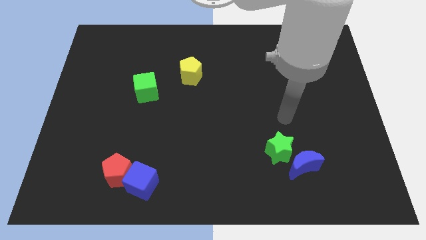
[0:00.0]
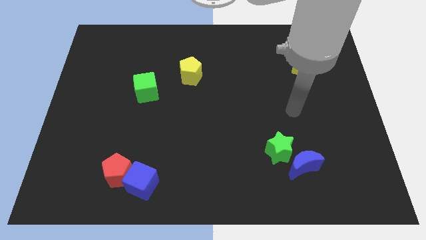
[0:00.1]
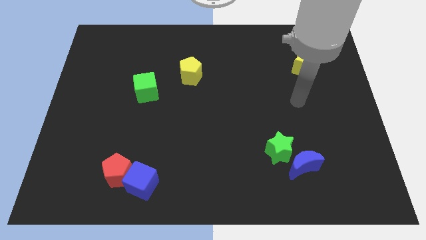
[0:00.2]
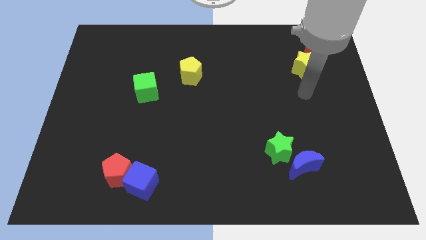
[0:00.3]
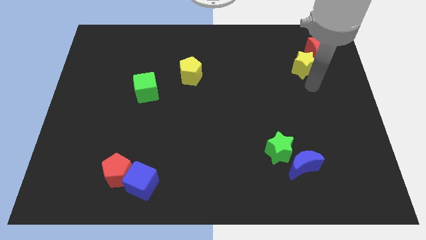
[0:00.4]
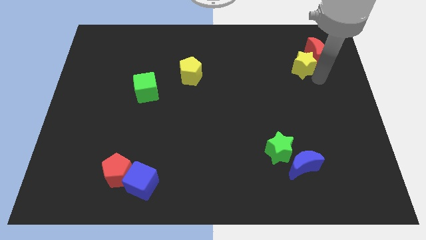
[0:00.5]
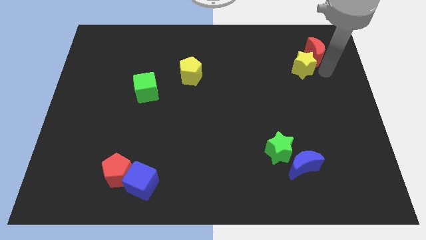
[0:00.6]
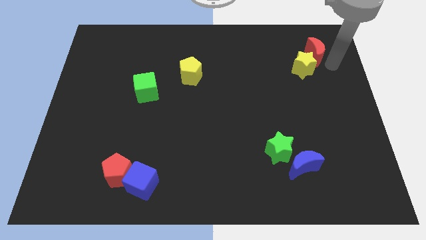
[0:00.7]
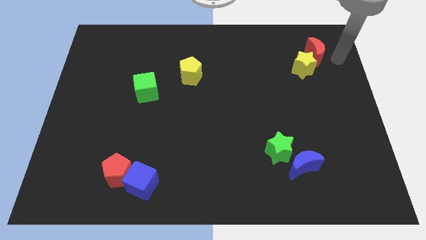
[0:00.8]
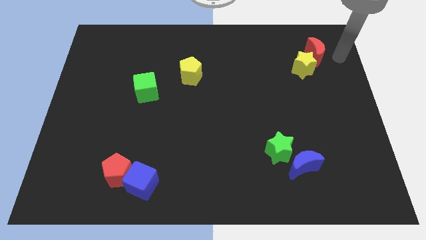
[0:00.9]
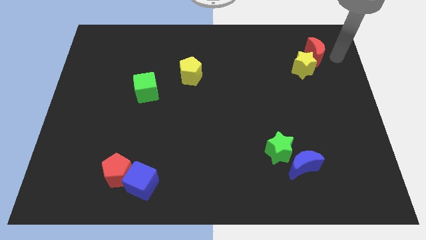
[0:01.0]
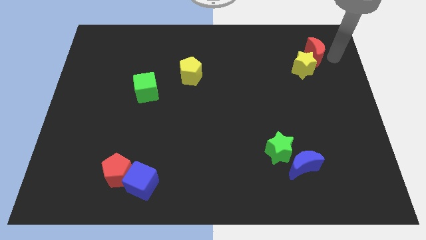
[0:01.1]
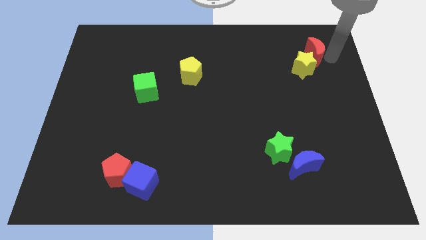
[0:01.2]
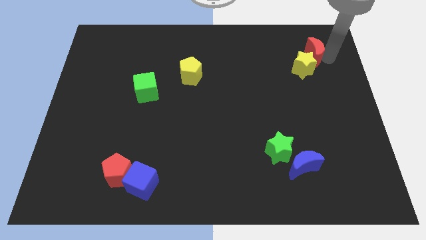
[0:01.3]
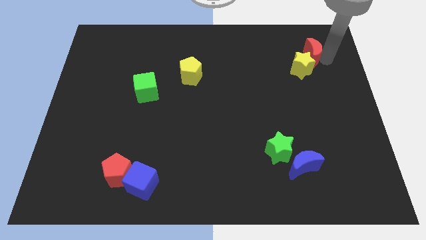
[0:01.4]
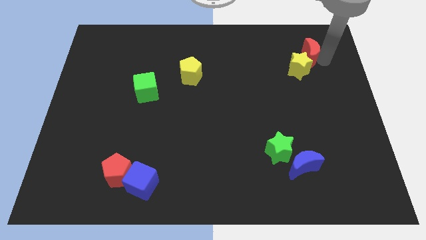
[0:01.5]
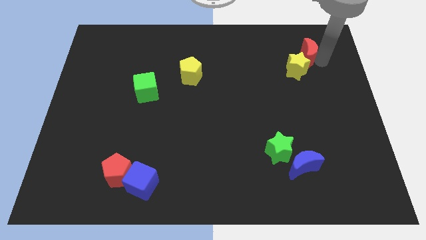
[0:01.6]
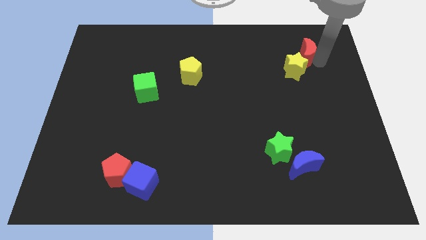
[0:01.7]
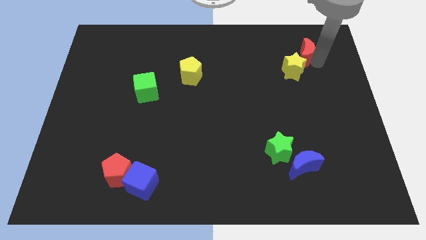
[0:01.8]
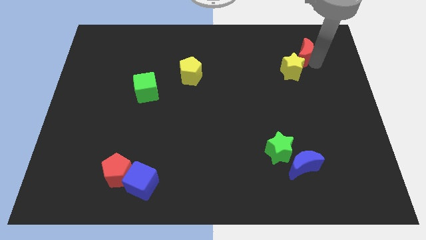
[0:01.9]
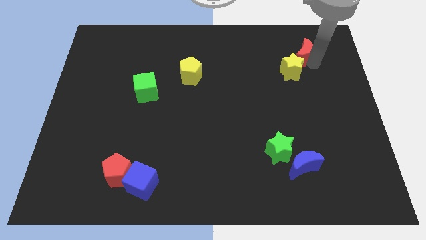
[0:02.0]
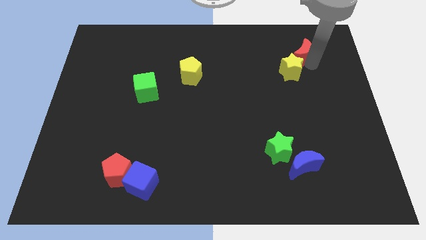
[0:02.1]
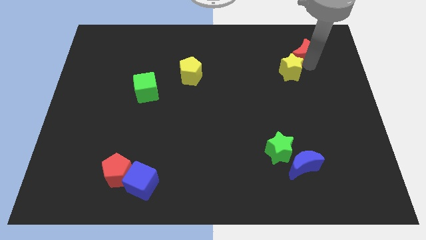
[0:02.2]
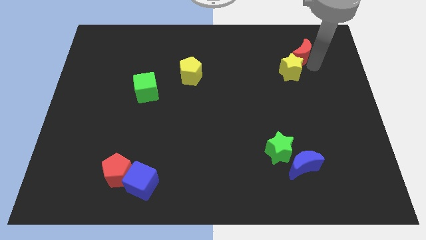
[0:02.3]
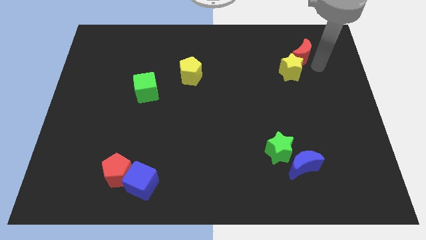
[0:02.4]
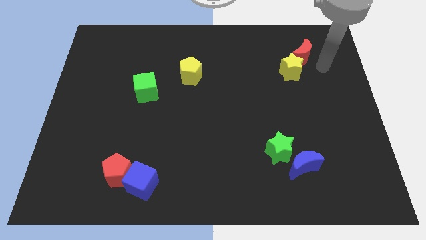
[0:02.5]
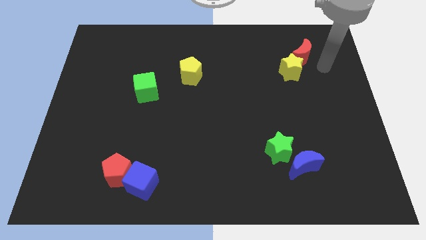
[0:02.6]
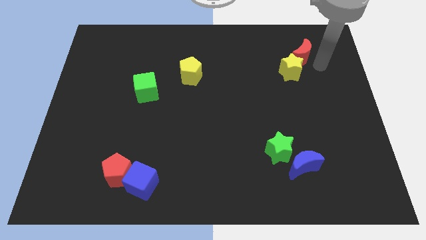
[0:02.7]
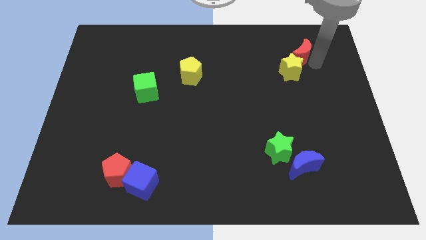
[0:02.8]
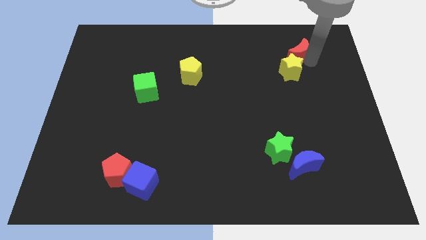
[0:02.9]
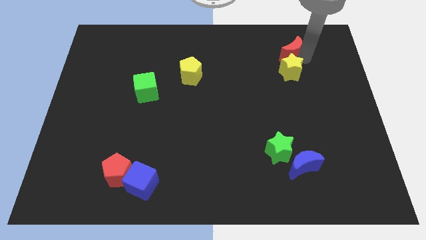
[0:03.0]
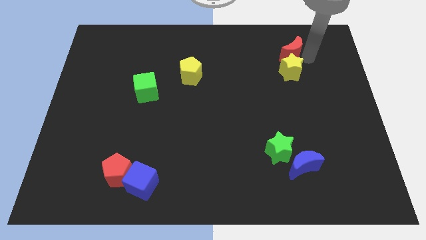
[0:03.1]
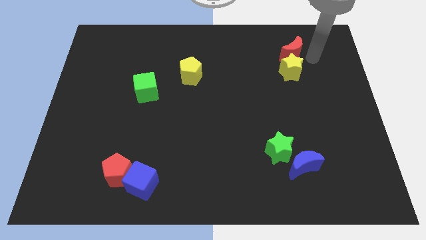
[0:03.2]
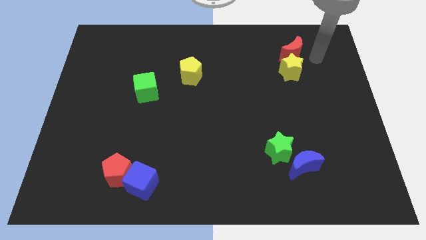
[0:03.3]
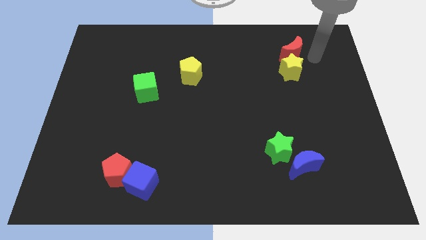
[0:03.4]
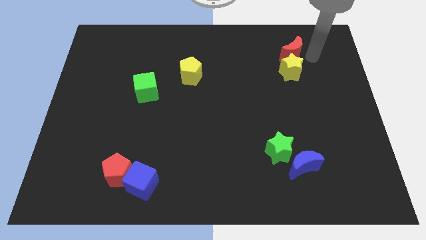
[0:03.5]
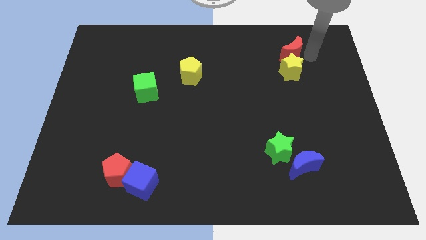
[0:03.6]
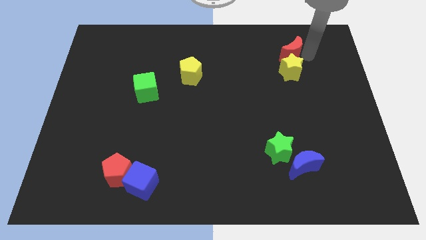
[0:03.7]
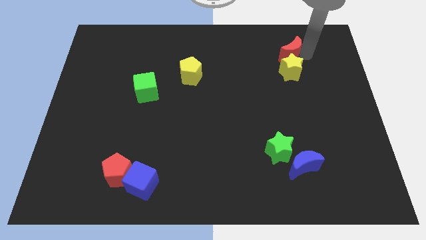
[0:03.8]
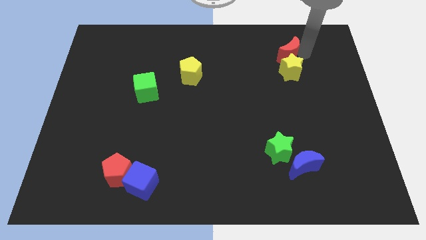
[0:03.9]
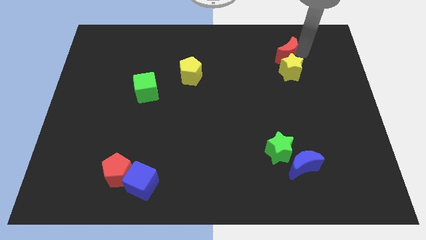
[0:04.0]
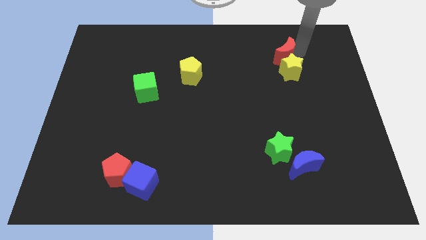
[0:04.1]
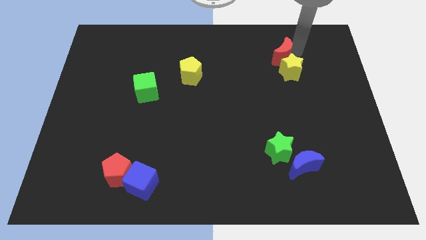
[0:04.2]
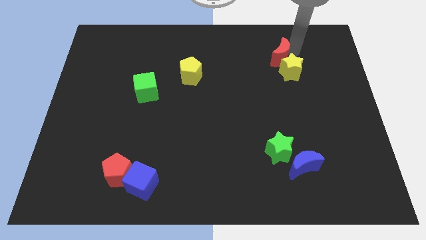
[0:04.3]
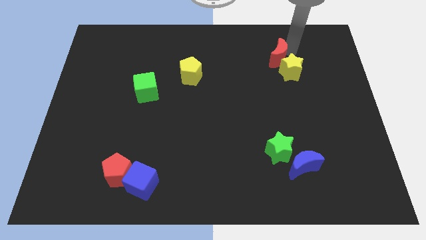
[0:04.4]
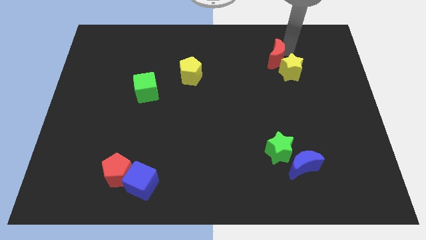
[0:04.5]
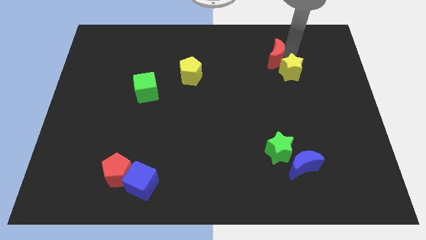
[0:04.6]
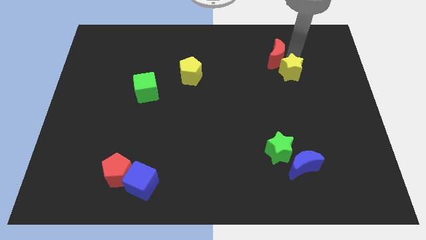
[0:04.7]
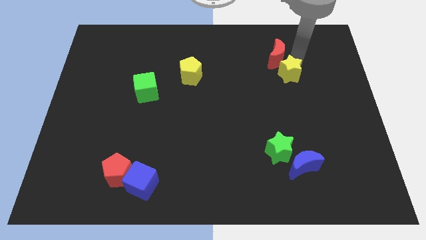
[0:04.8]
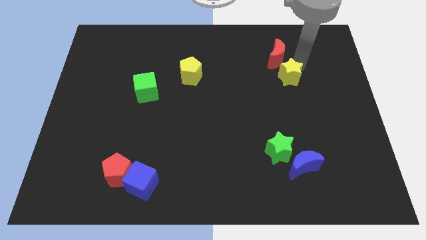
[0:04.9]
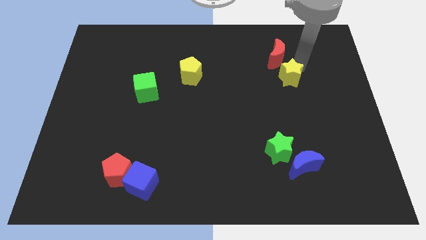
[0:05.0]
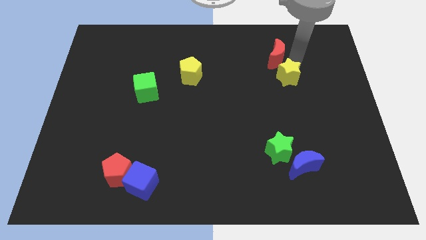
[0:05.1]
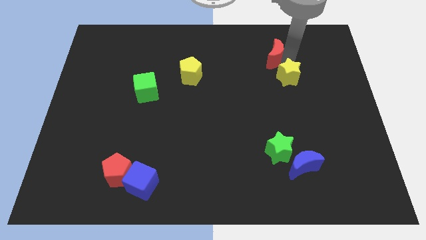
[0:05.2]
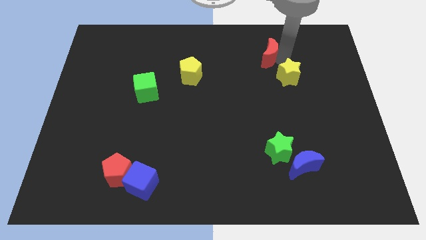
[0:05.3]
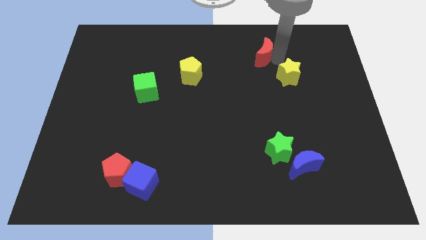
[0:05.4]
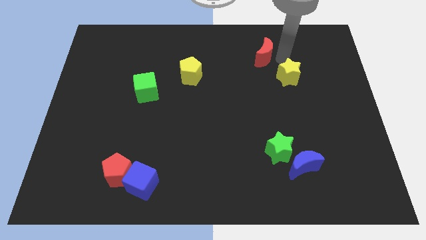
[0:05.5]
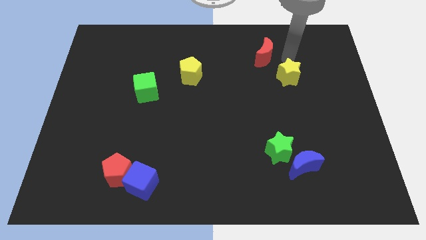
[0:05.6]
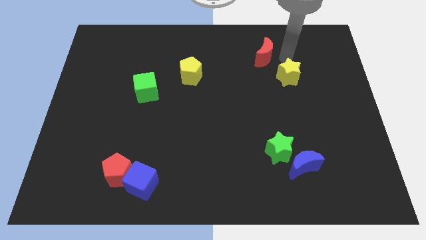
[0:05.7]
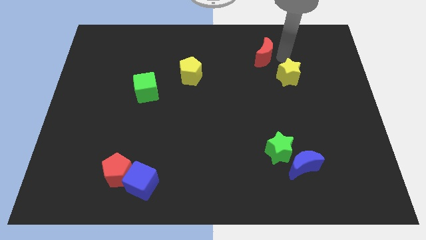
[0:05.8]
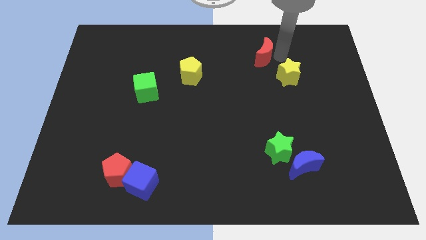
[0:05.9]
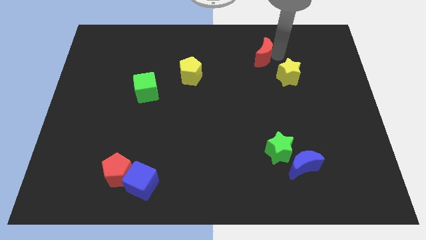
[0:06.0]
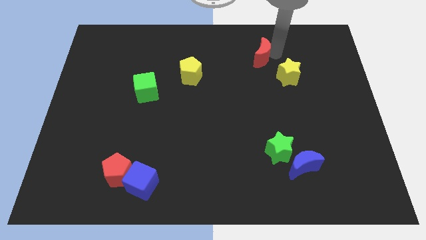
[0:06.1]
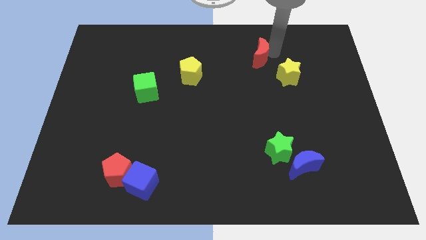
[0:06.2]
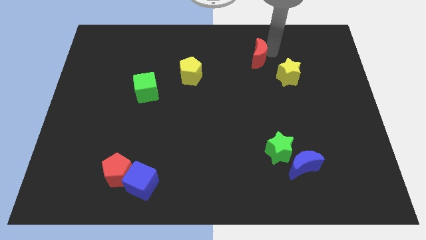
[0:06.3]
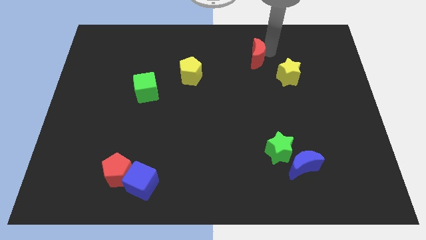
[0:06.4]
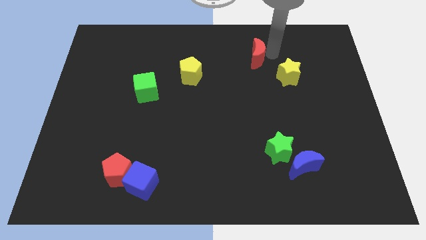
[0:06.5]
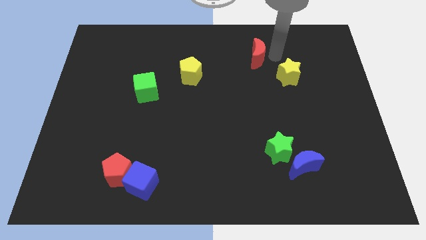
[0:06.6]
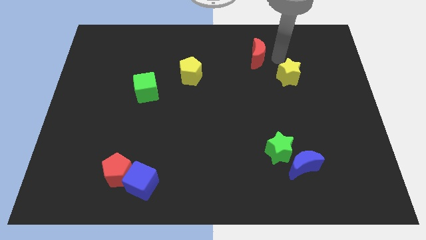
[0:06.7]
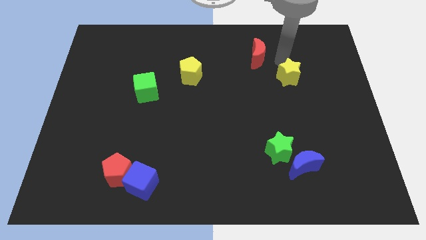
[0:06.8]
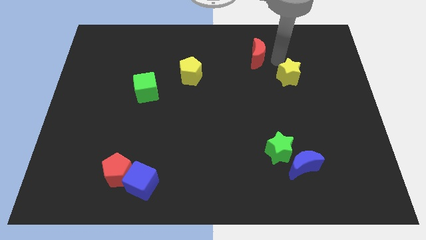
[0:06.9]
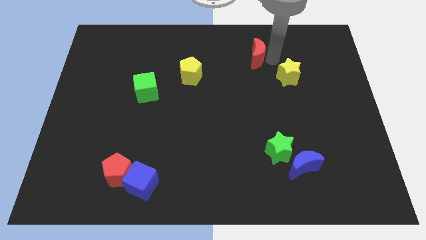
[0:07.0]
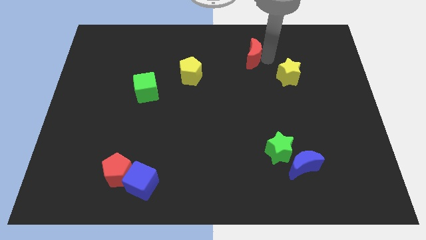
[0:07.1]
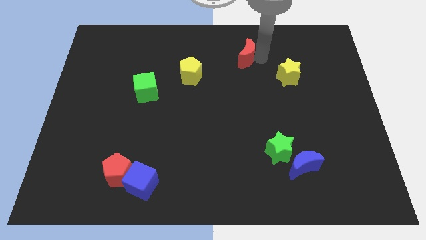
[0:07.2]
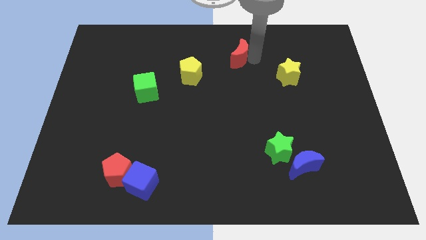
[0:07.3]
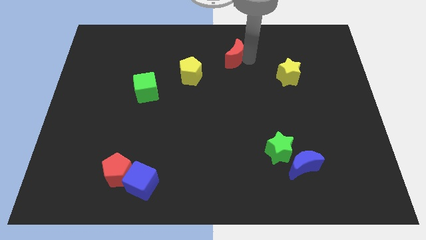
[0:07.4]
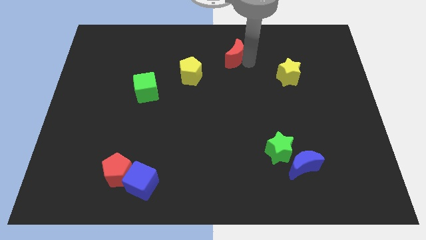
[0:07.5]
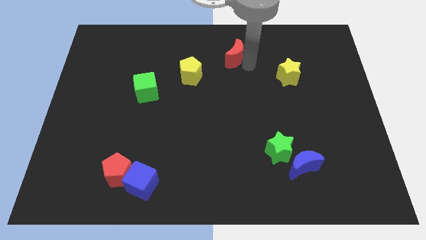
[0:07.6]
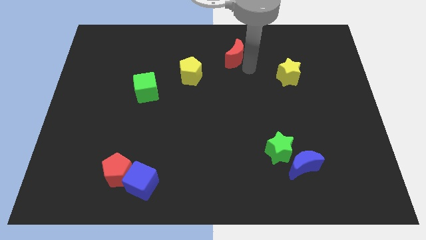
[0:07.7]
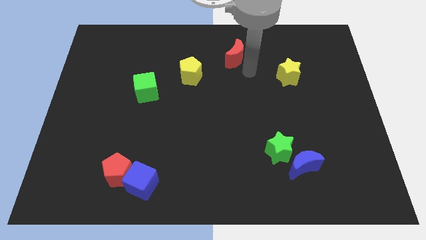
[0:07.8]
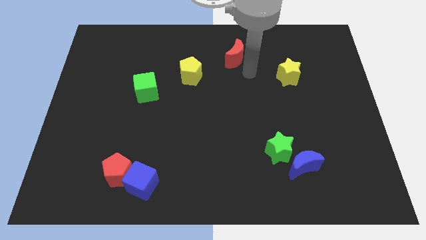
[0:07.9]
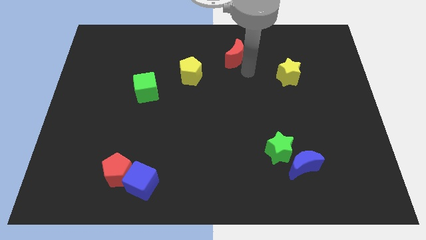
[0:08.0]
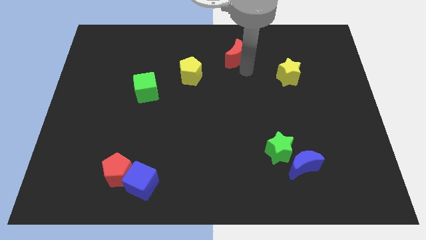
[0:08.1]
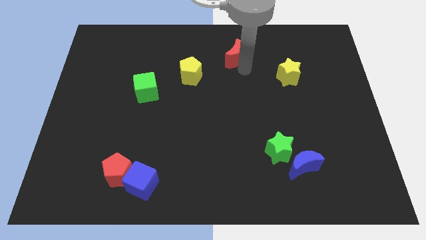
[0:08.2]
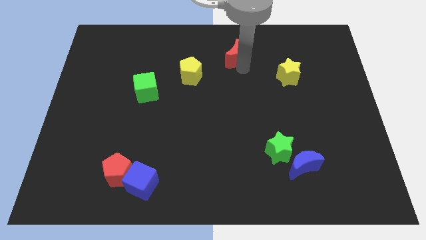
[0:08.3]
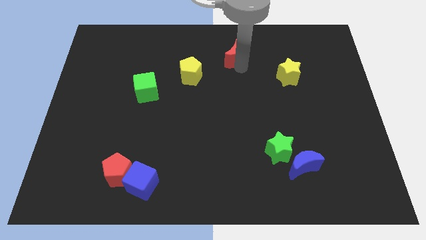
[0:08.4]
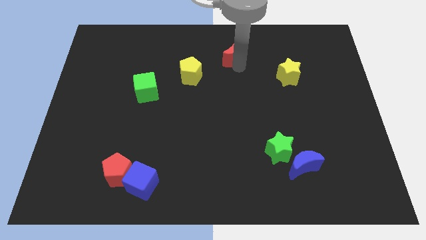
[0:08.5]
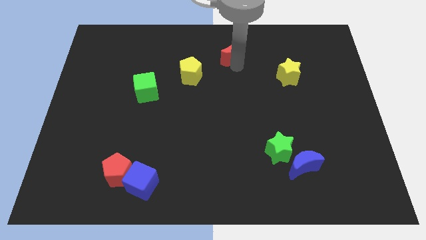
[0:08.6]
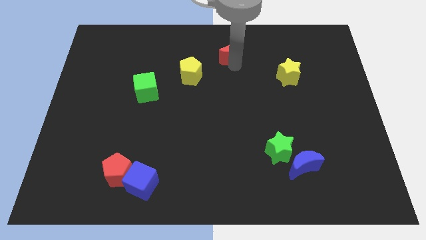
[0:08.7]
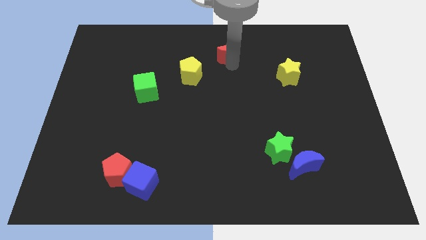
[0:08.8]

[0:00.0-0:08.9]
move the red moon to the towards your base
